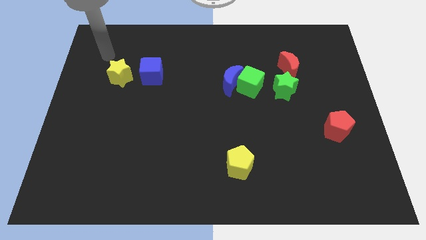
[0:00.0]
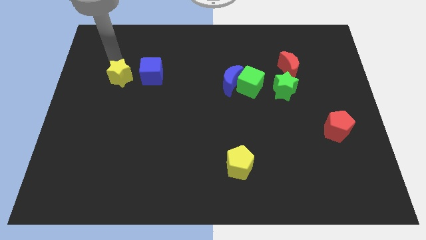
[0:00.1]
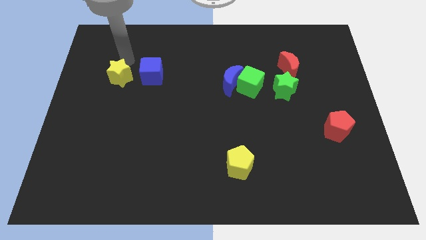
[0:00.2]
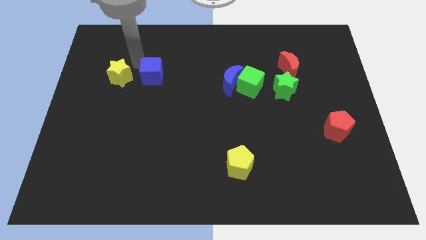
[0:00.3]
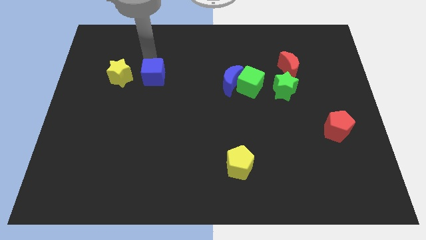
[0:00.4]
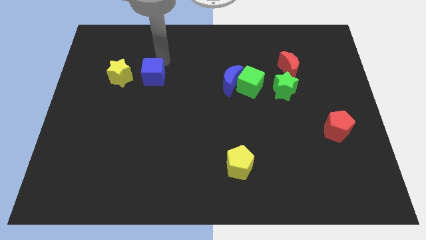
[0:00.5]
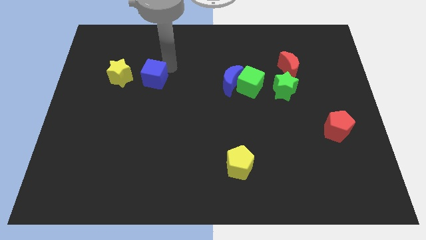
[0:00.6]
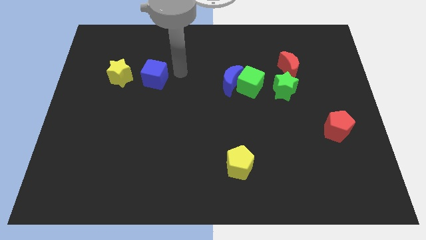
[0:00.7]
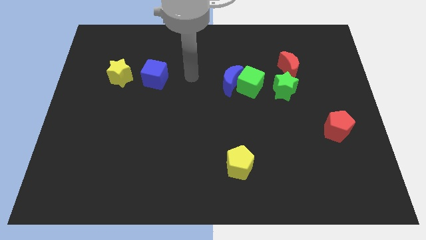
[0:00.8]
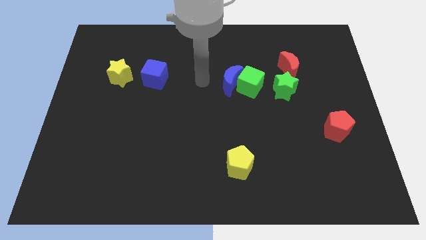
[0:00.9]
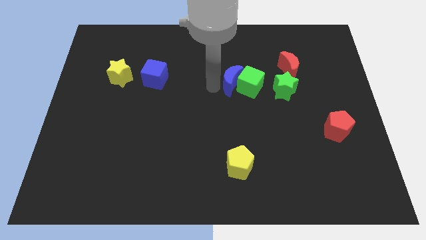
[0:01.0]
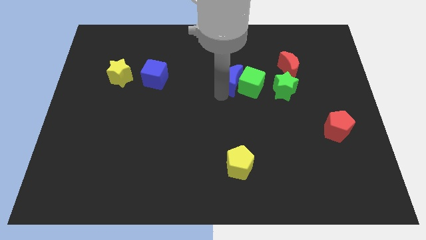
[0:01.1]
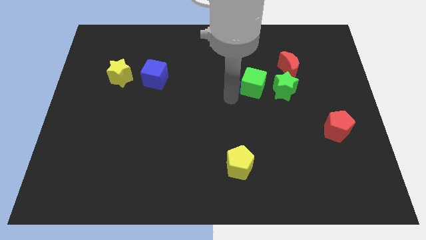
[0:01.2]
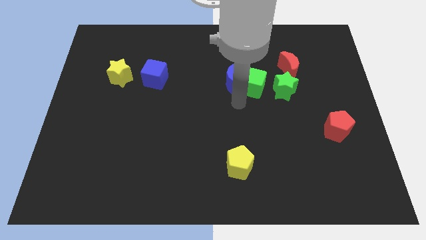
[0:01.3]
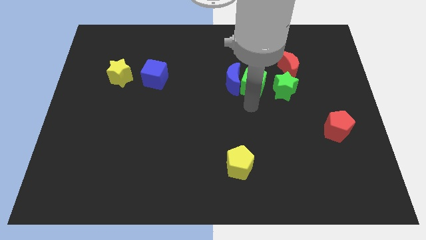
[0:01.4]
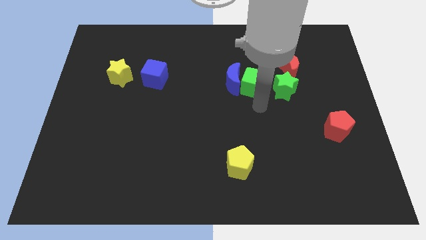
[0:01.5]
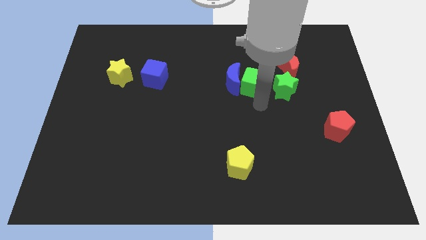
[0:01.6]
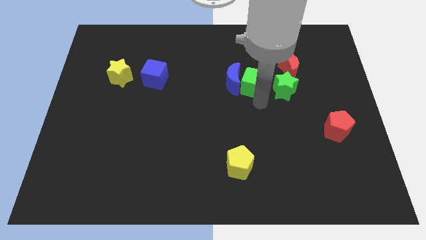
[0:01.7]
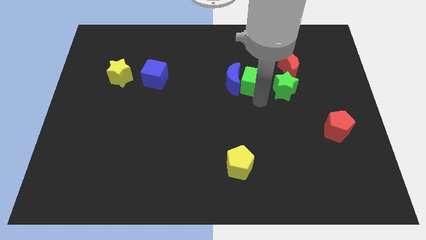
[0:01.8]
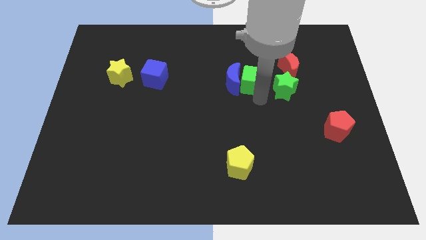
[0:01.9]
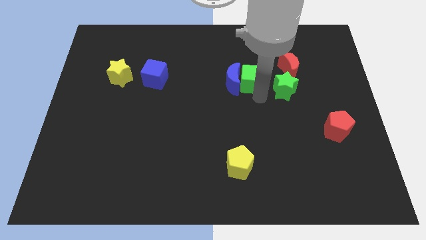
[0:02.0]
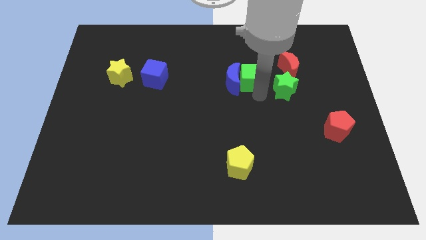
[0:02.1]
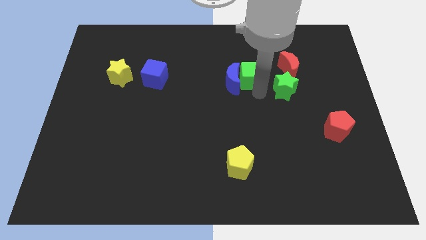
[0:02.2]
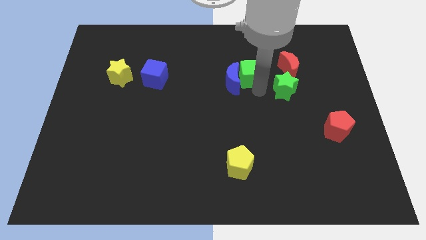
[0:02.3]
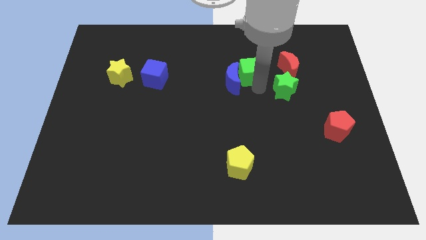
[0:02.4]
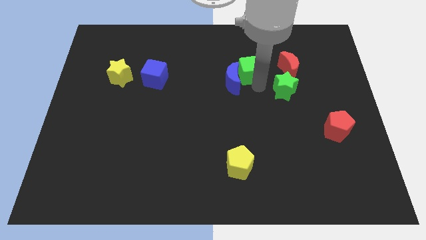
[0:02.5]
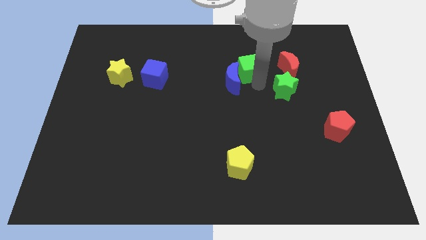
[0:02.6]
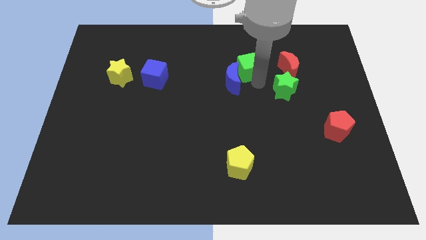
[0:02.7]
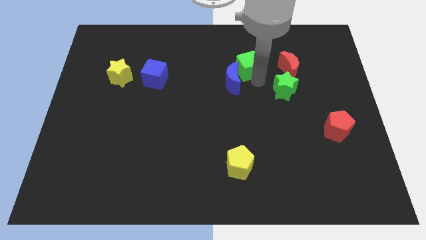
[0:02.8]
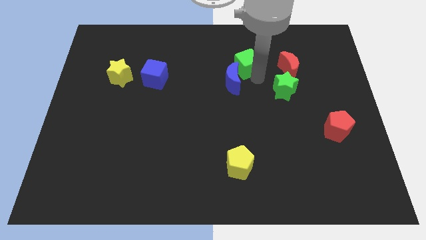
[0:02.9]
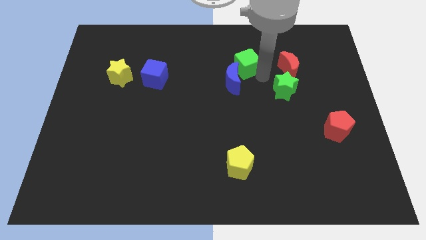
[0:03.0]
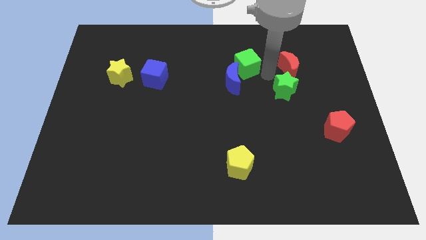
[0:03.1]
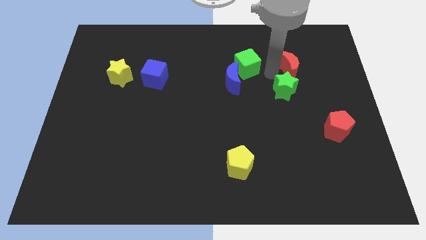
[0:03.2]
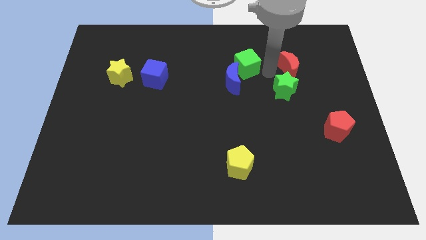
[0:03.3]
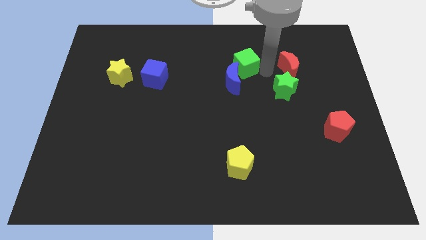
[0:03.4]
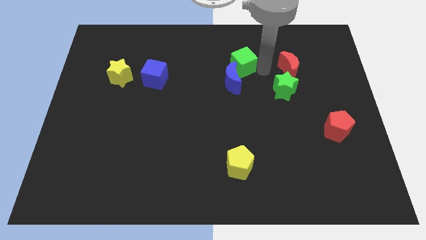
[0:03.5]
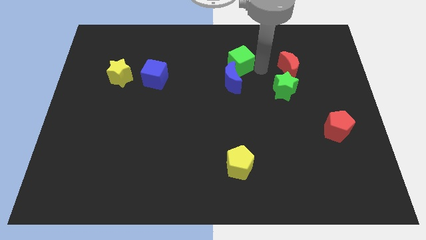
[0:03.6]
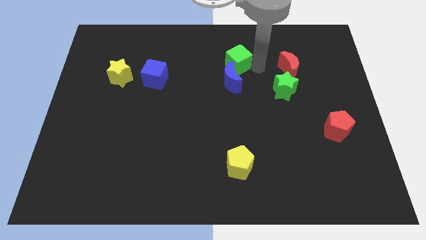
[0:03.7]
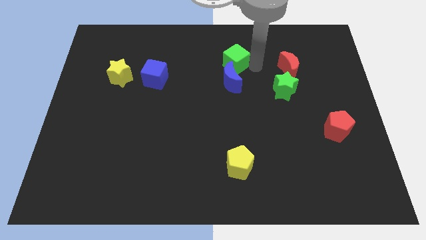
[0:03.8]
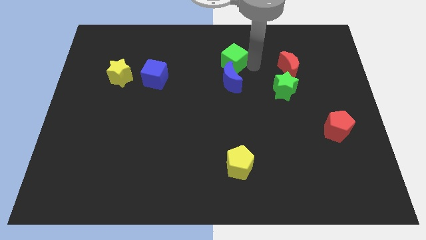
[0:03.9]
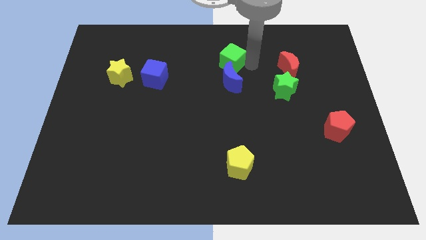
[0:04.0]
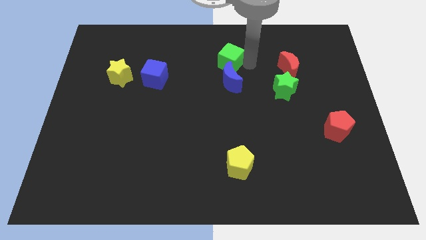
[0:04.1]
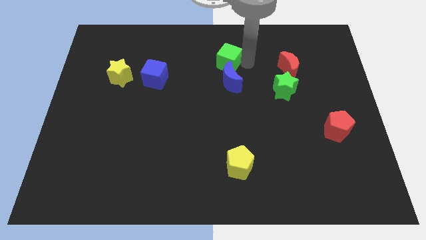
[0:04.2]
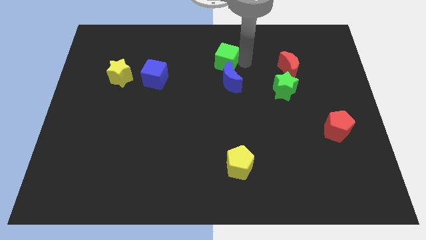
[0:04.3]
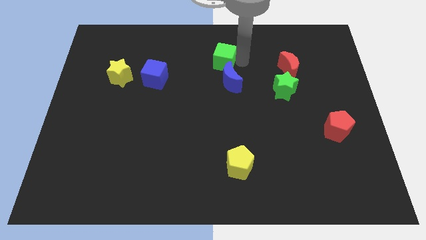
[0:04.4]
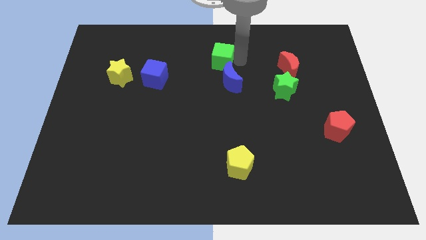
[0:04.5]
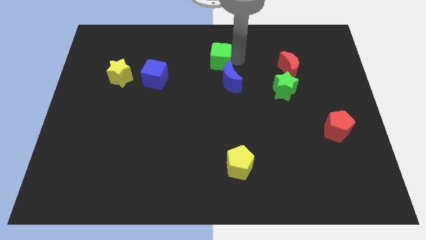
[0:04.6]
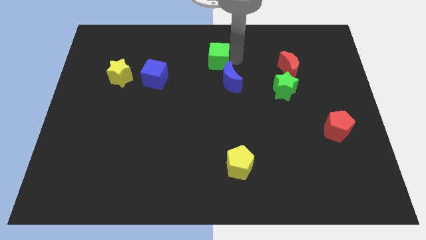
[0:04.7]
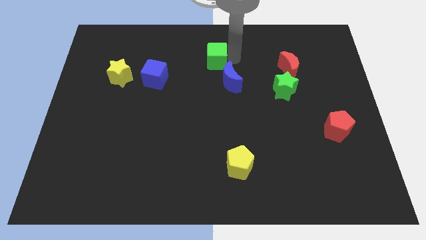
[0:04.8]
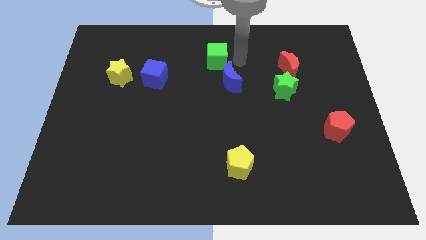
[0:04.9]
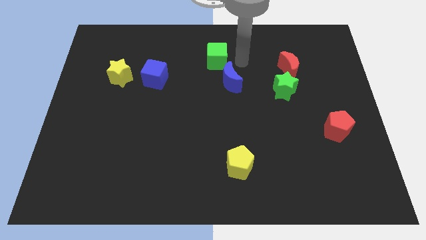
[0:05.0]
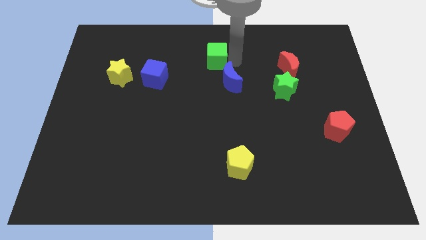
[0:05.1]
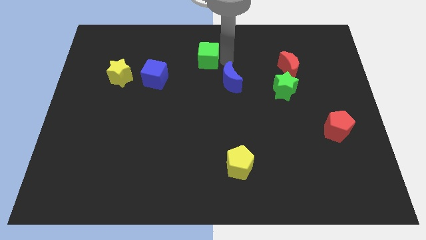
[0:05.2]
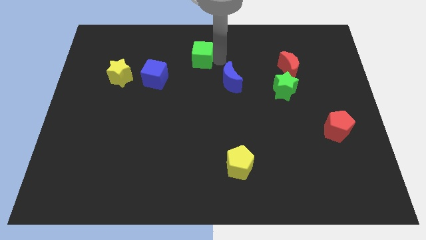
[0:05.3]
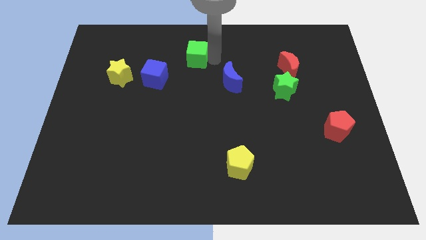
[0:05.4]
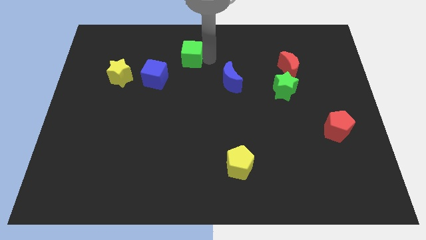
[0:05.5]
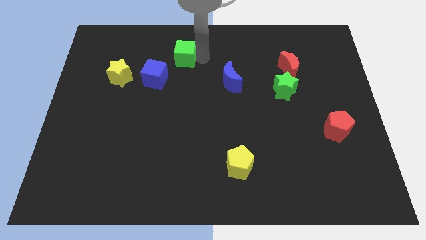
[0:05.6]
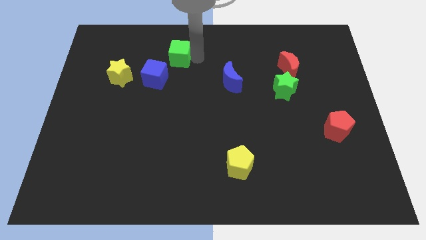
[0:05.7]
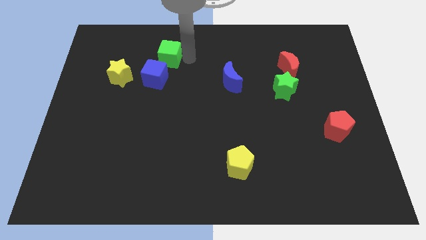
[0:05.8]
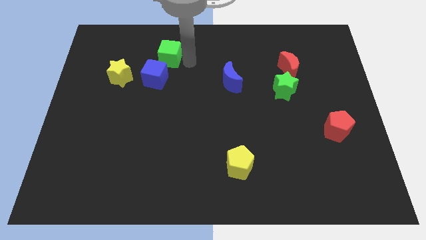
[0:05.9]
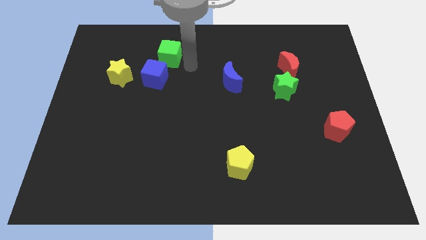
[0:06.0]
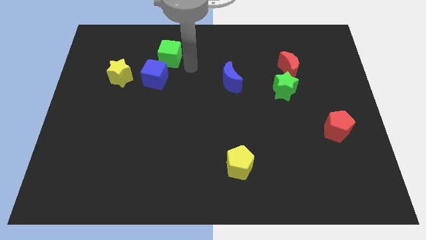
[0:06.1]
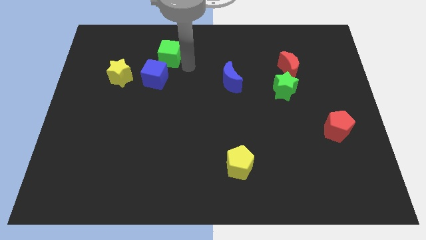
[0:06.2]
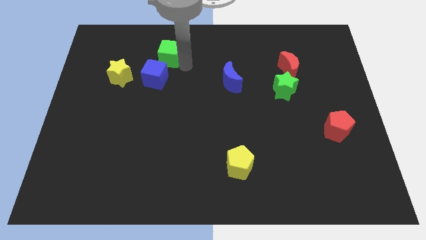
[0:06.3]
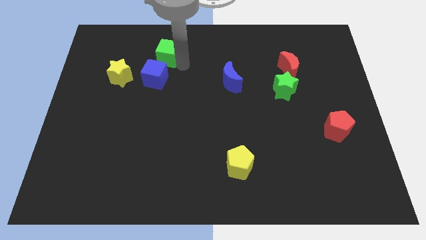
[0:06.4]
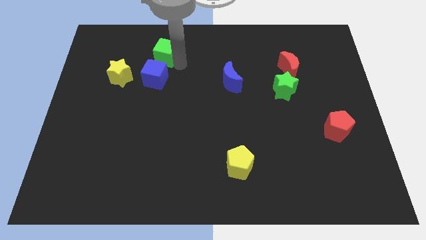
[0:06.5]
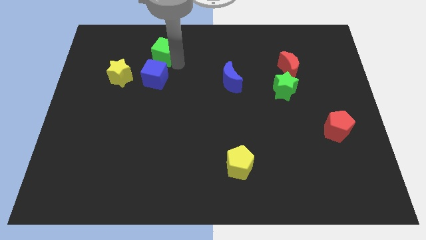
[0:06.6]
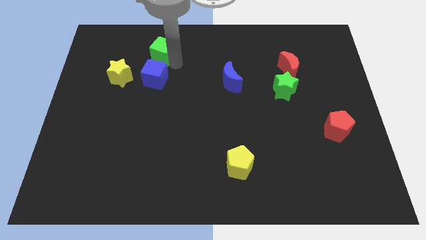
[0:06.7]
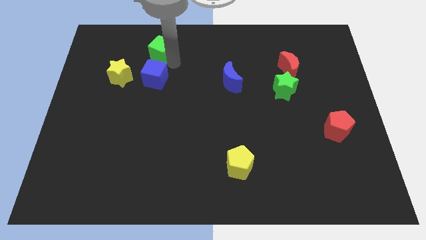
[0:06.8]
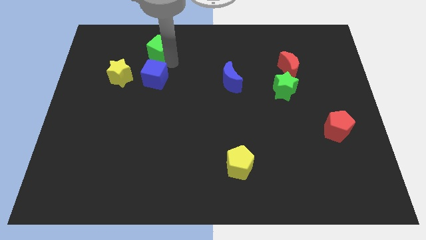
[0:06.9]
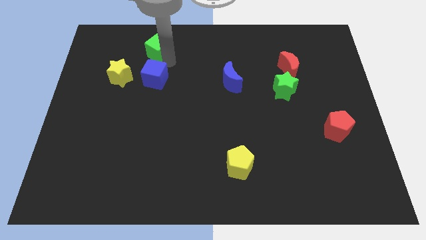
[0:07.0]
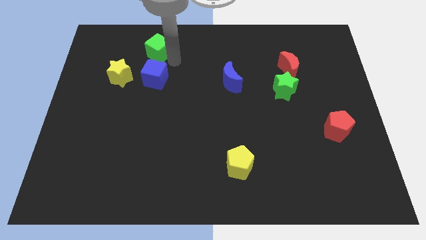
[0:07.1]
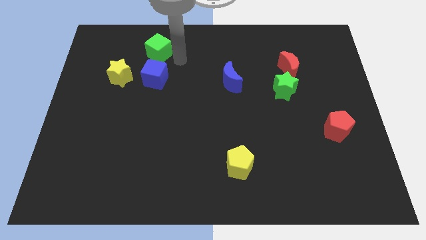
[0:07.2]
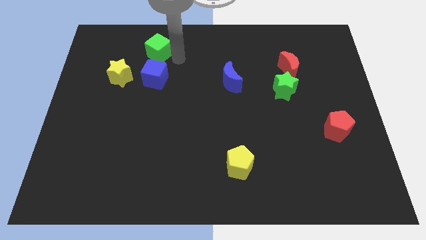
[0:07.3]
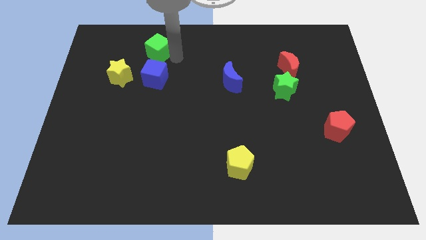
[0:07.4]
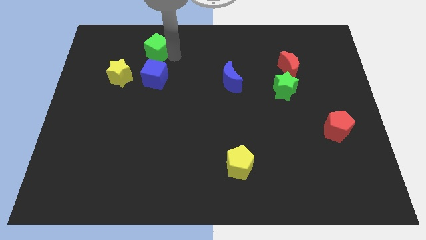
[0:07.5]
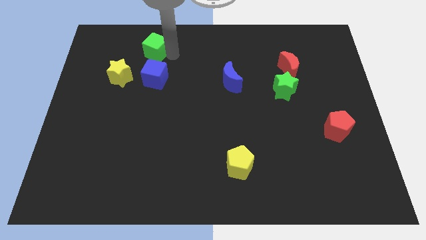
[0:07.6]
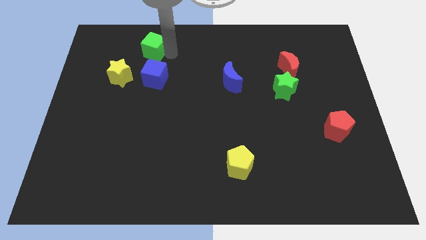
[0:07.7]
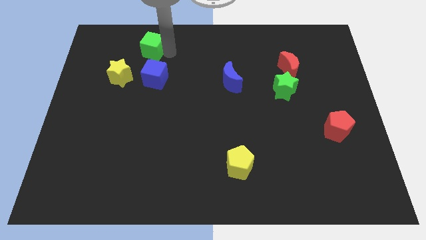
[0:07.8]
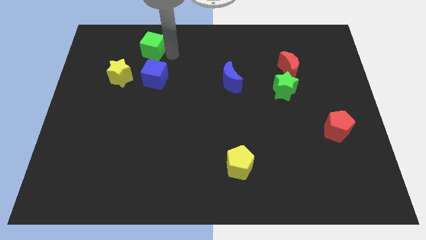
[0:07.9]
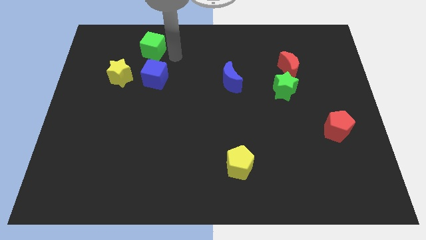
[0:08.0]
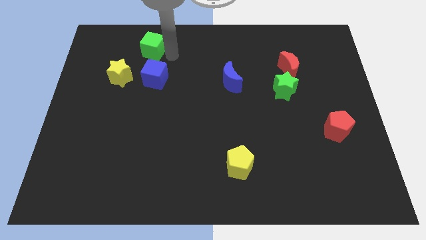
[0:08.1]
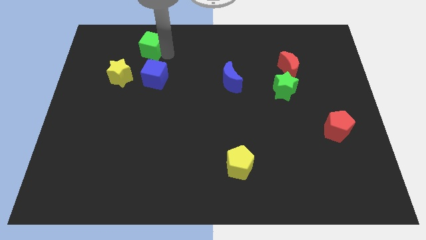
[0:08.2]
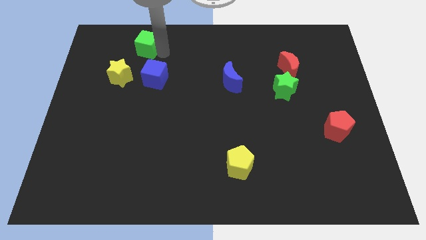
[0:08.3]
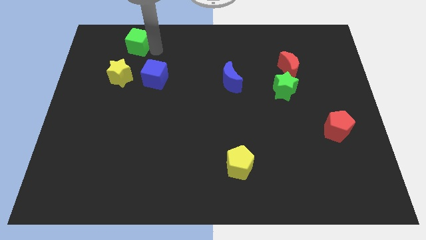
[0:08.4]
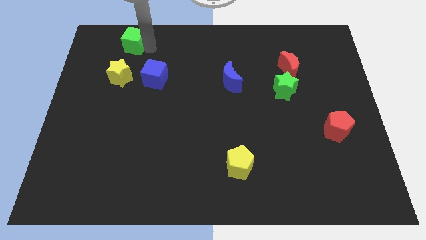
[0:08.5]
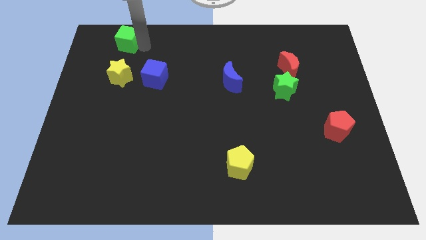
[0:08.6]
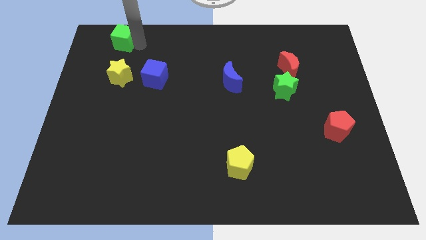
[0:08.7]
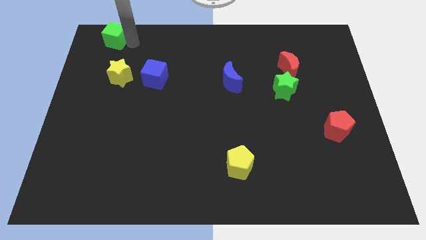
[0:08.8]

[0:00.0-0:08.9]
put the green cube to the upper left corner
